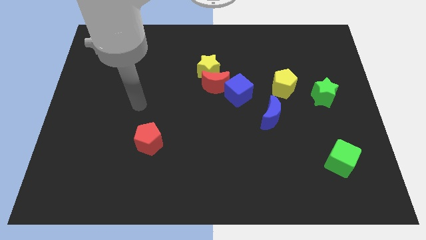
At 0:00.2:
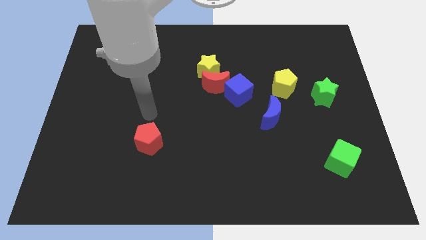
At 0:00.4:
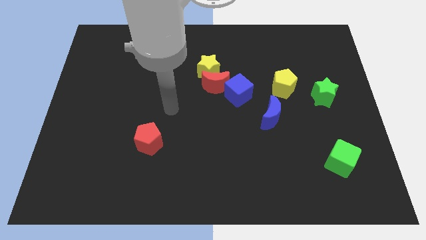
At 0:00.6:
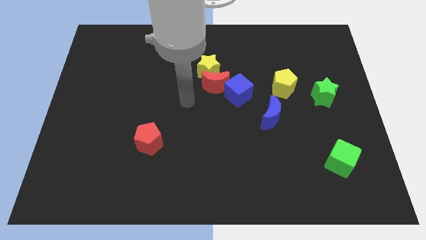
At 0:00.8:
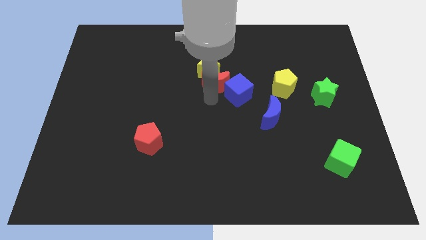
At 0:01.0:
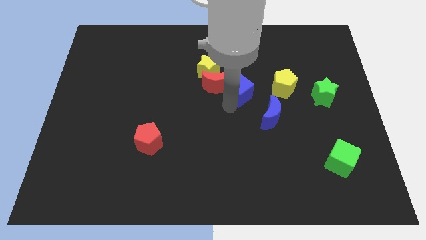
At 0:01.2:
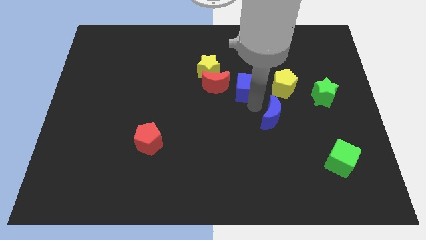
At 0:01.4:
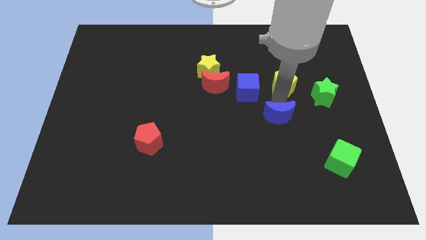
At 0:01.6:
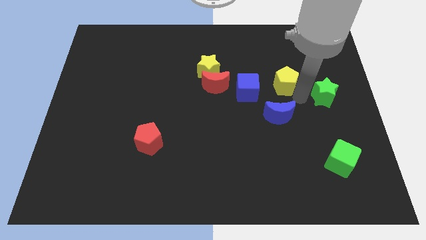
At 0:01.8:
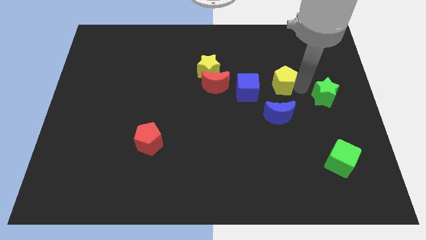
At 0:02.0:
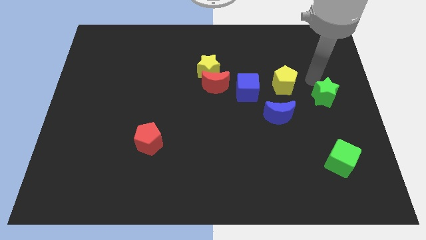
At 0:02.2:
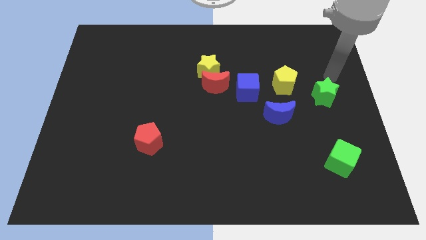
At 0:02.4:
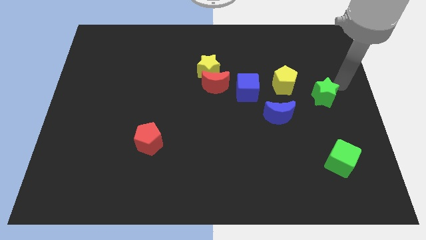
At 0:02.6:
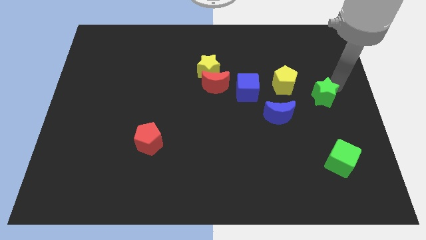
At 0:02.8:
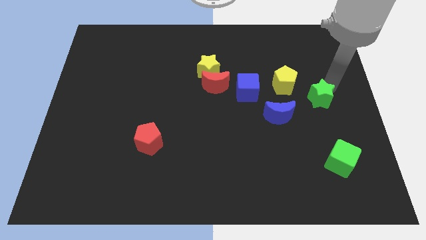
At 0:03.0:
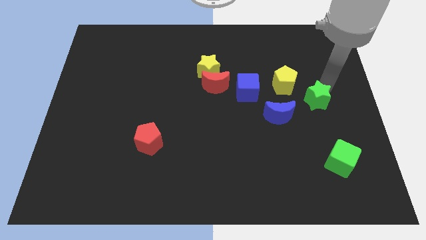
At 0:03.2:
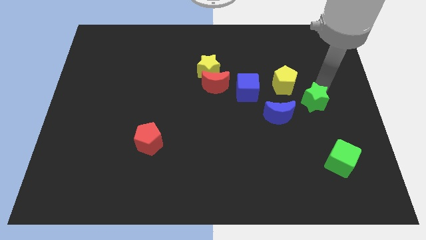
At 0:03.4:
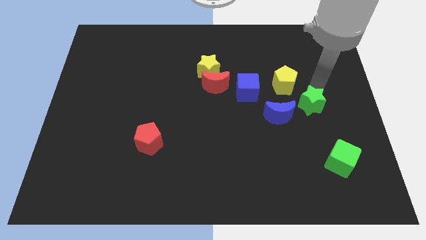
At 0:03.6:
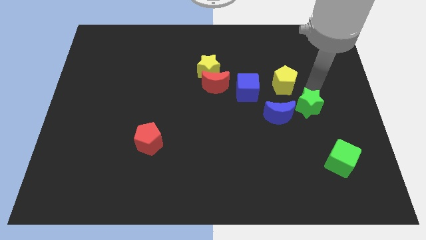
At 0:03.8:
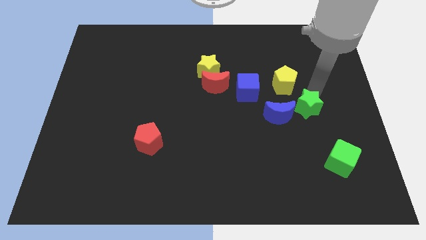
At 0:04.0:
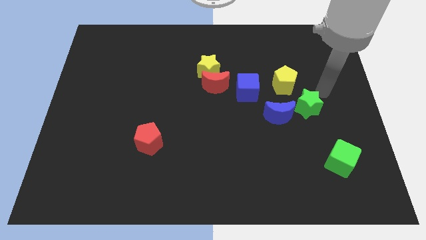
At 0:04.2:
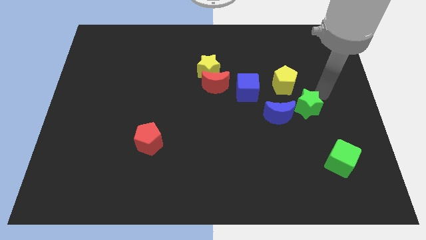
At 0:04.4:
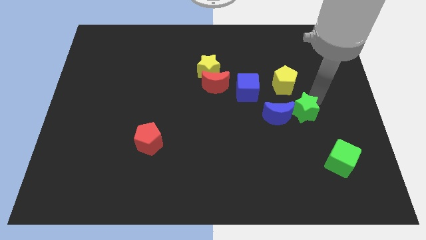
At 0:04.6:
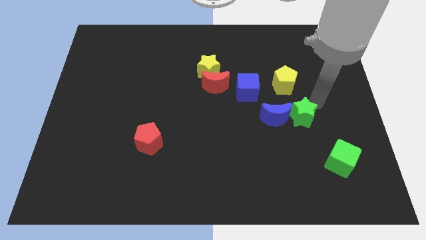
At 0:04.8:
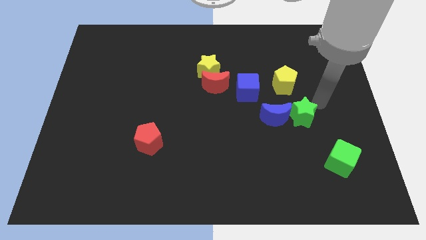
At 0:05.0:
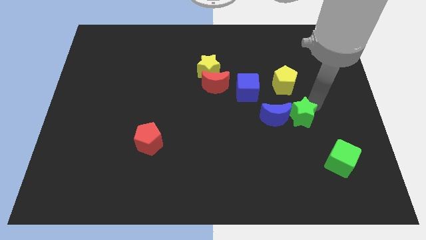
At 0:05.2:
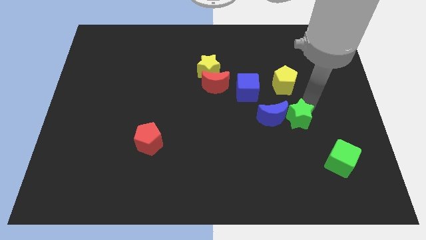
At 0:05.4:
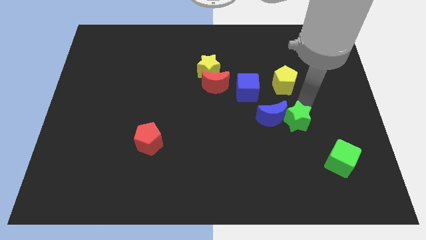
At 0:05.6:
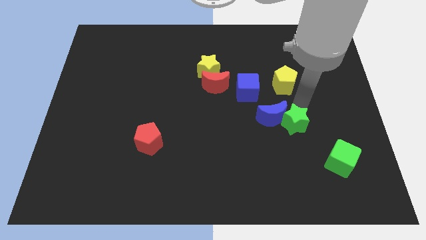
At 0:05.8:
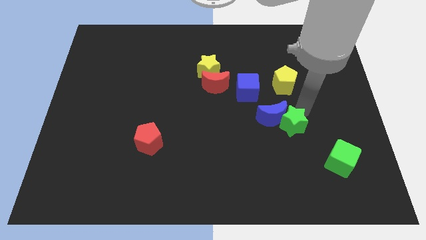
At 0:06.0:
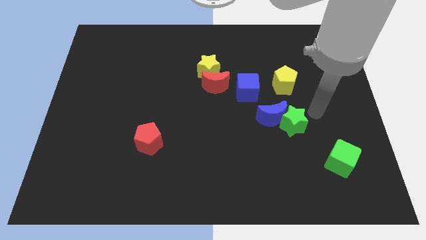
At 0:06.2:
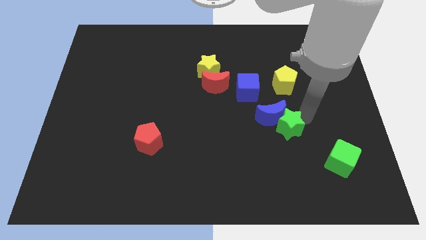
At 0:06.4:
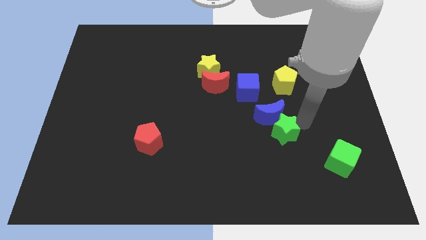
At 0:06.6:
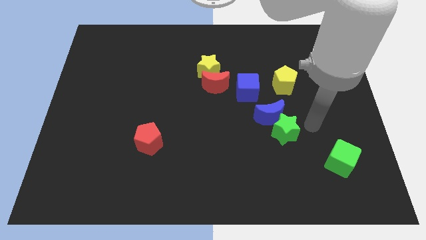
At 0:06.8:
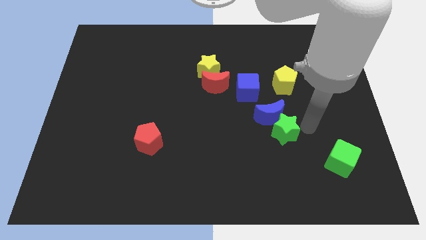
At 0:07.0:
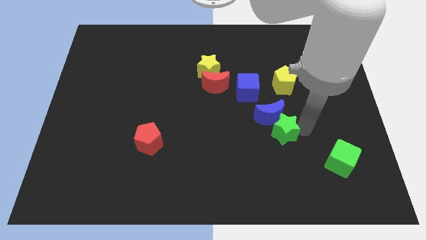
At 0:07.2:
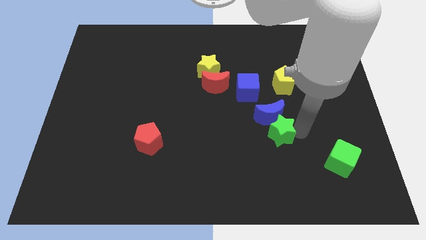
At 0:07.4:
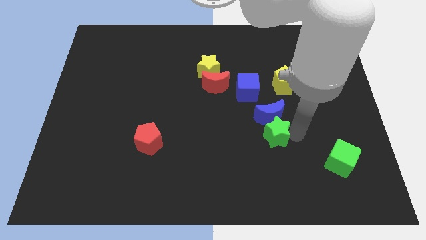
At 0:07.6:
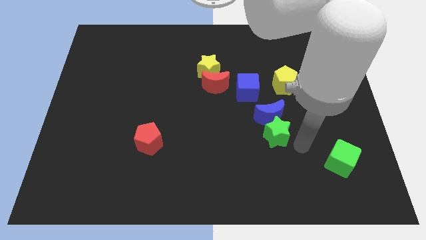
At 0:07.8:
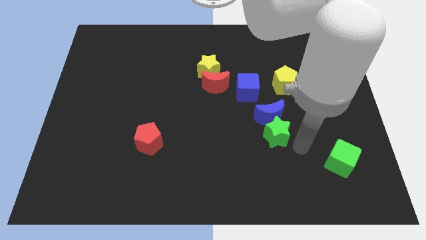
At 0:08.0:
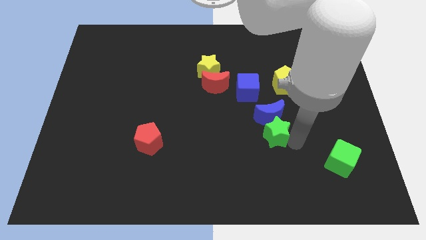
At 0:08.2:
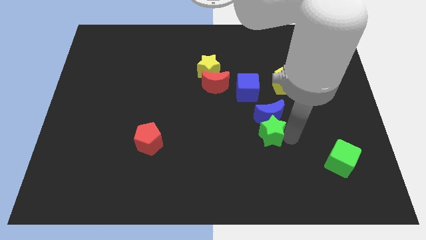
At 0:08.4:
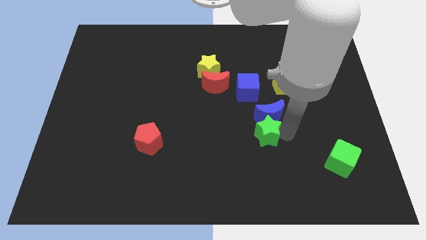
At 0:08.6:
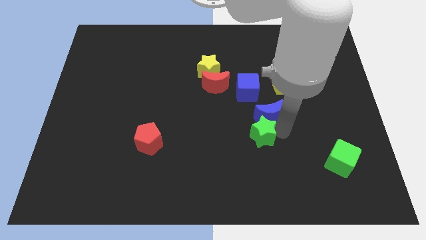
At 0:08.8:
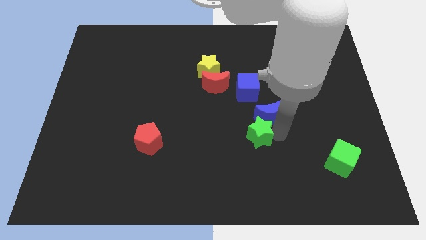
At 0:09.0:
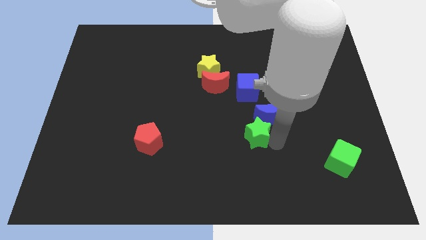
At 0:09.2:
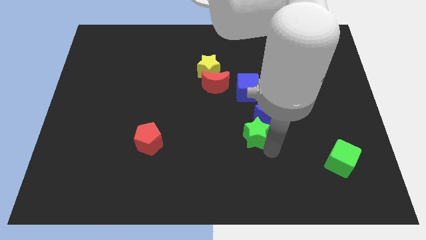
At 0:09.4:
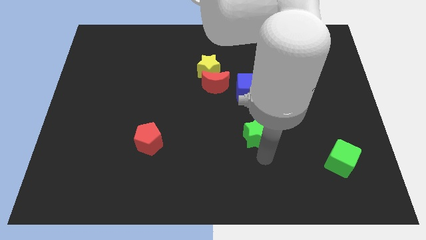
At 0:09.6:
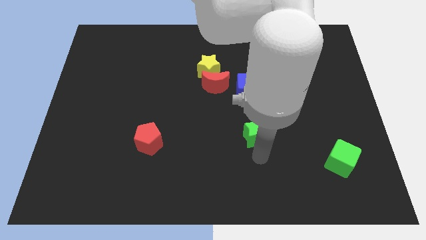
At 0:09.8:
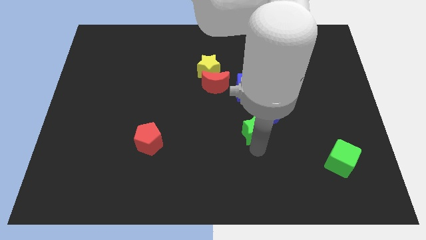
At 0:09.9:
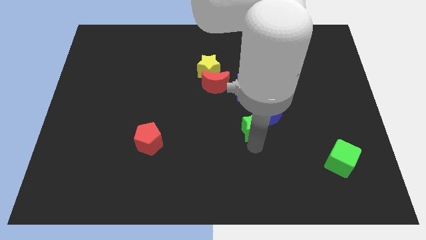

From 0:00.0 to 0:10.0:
slide the green star to the middle
